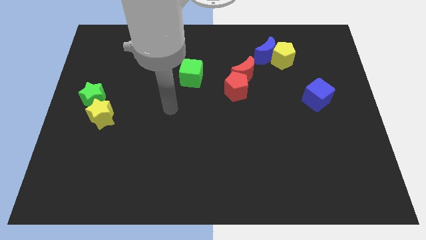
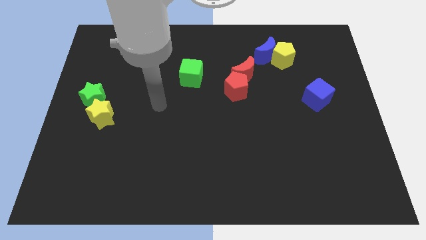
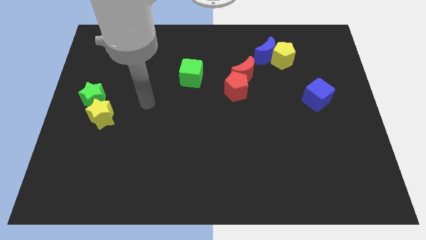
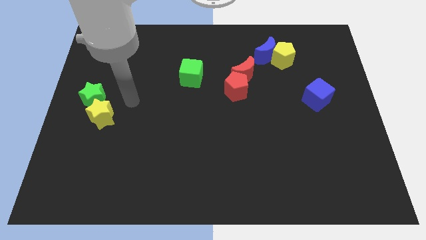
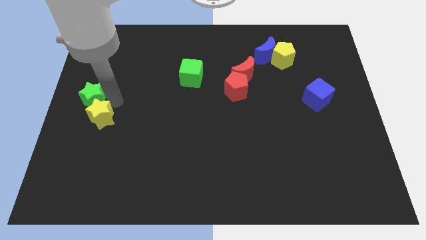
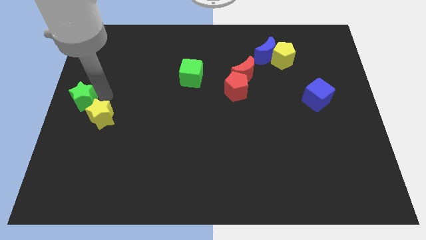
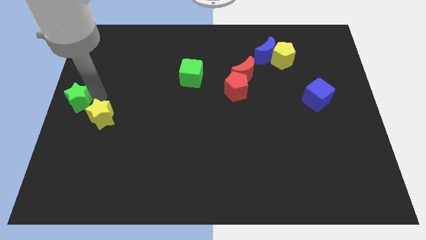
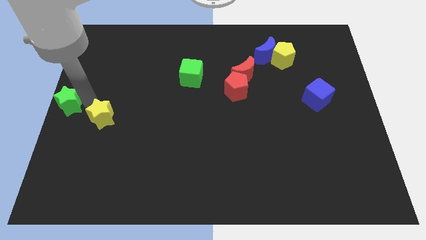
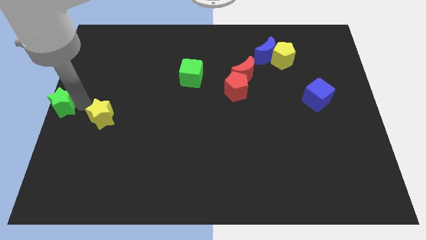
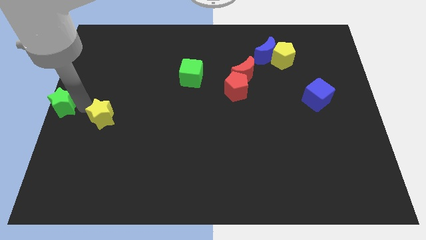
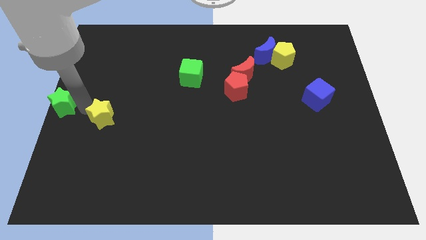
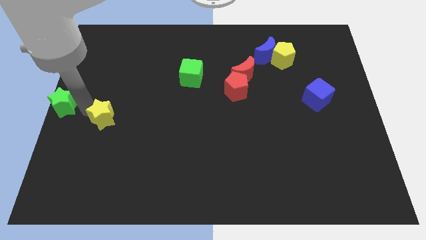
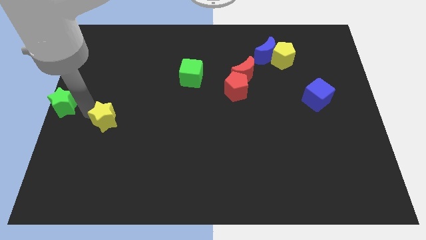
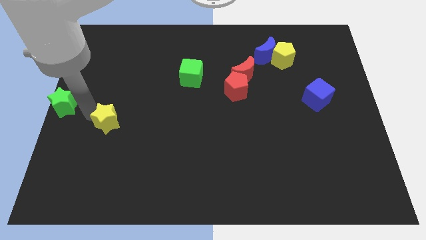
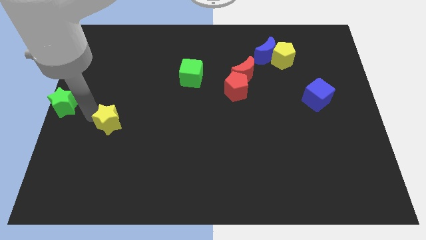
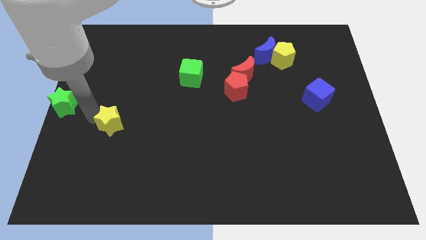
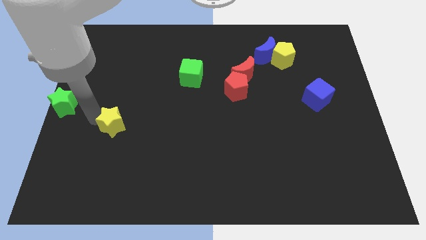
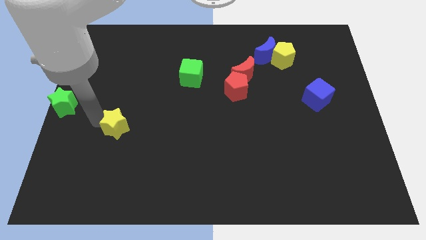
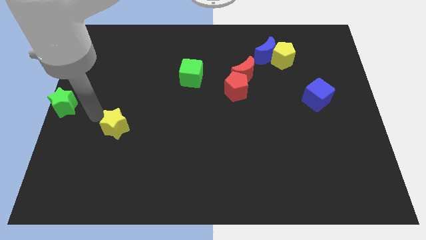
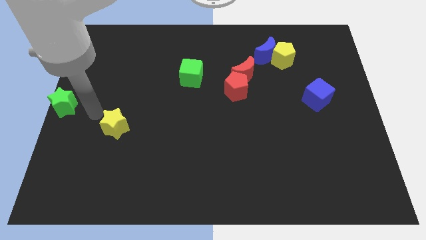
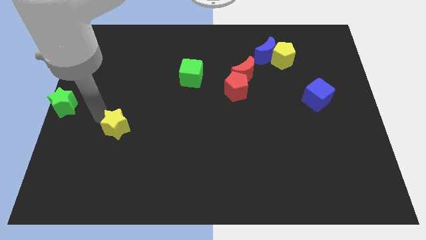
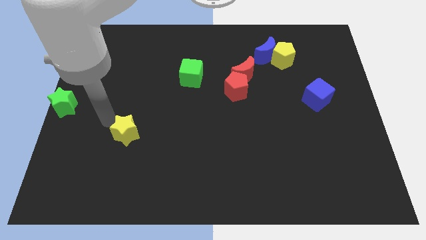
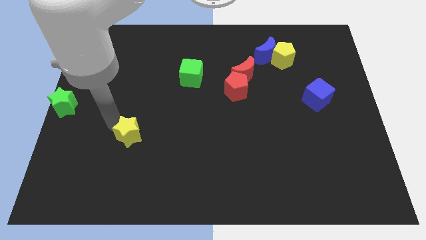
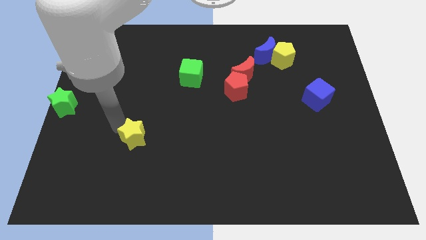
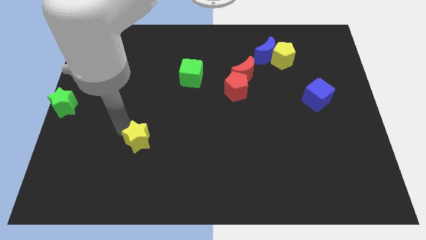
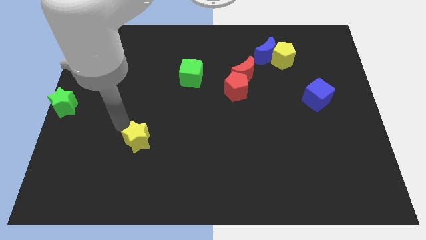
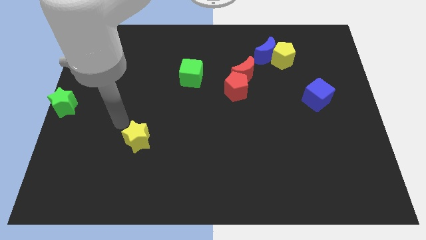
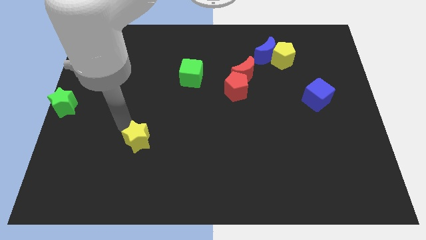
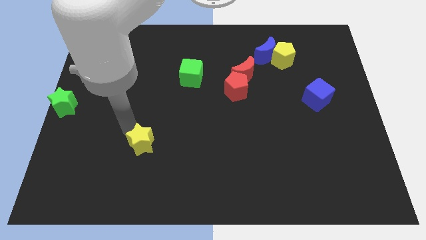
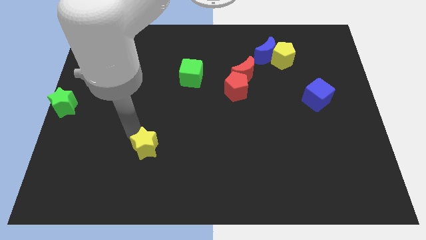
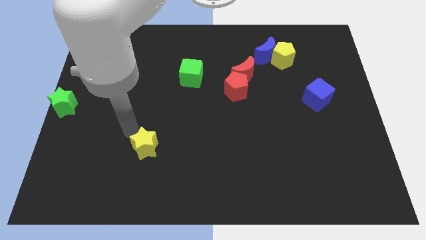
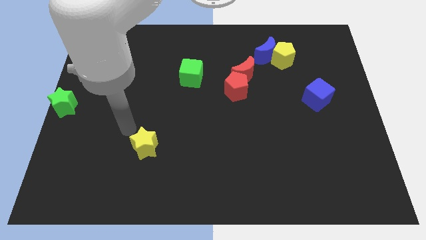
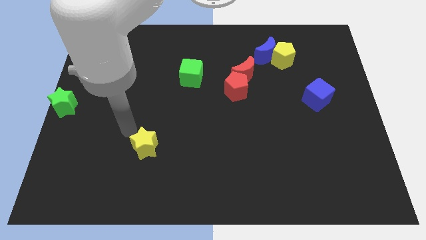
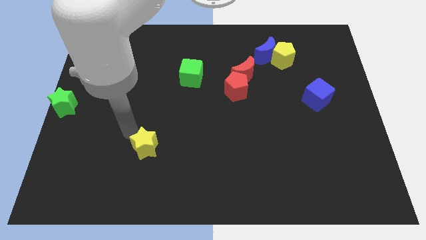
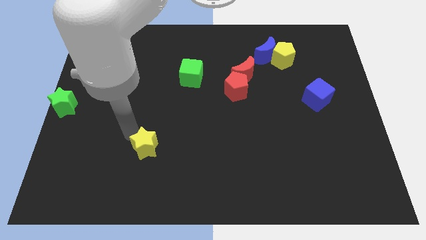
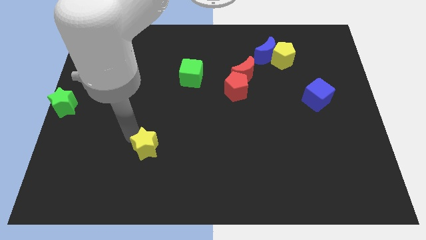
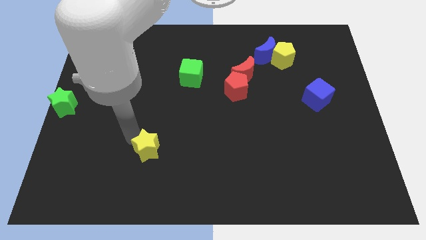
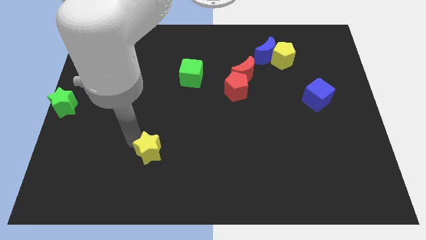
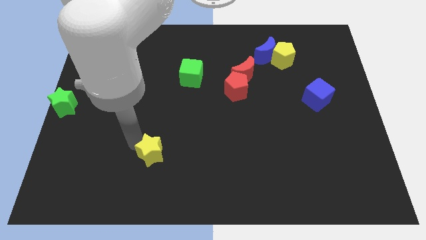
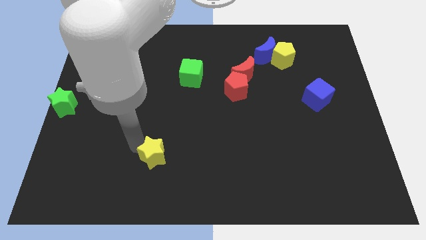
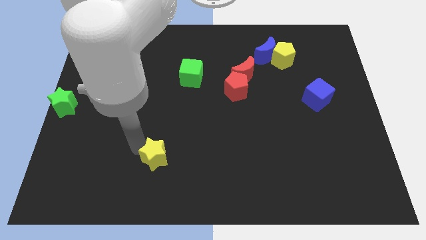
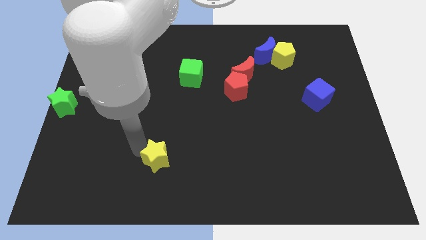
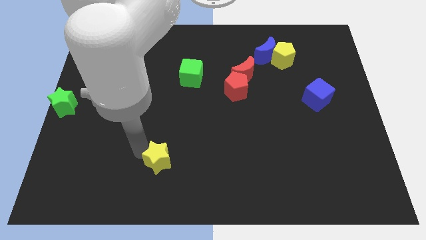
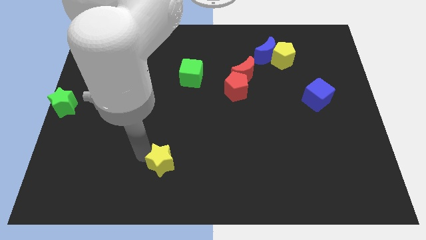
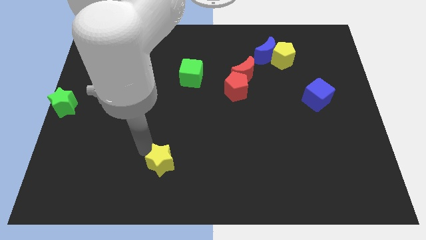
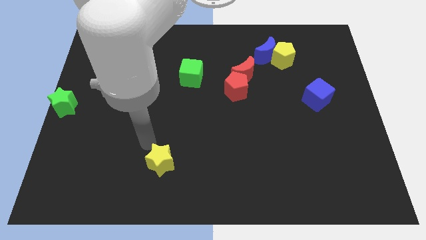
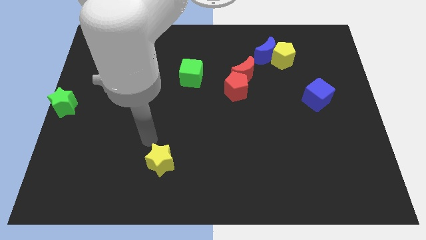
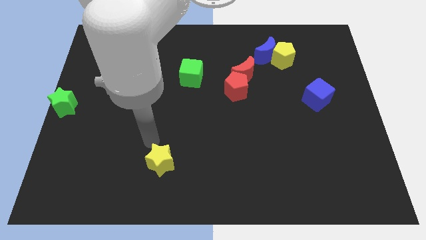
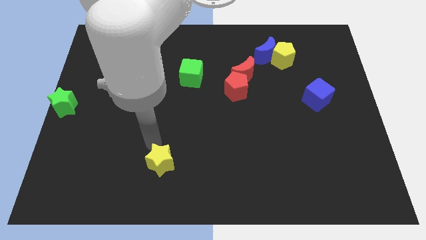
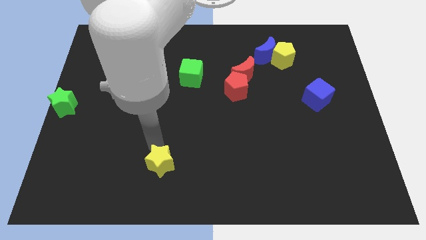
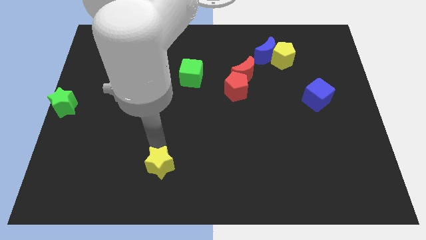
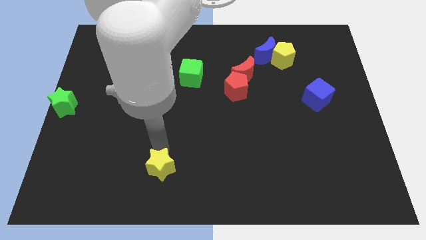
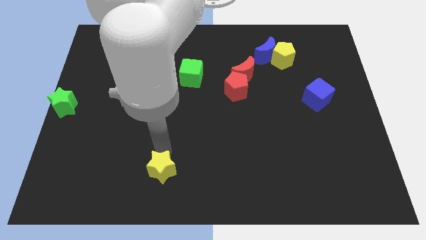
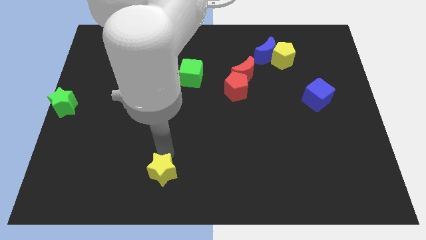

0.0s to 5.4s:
put the yellow star to the bottom side

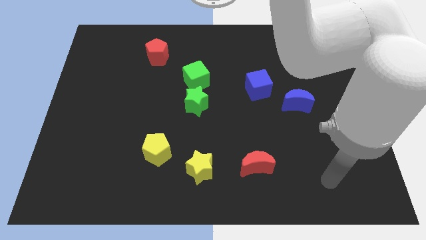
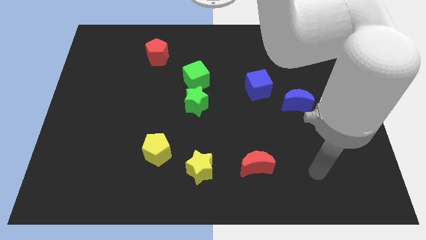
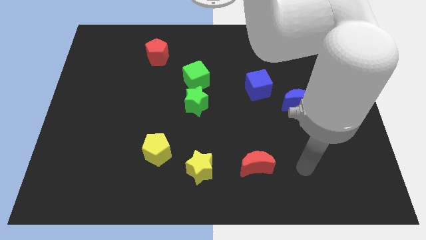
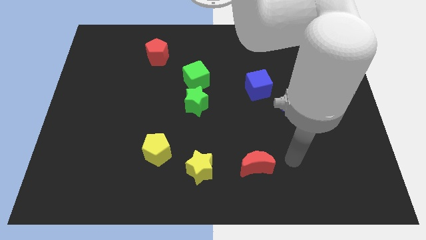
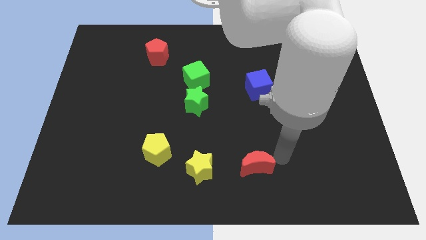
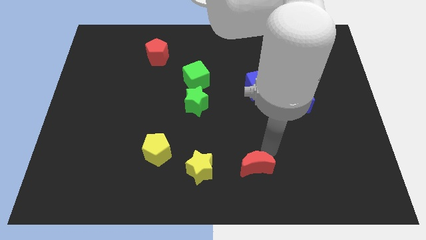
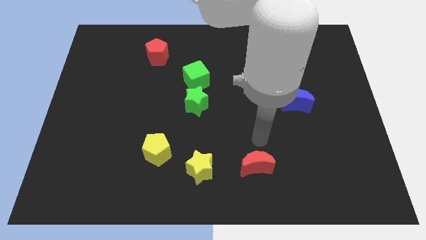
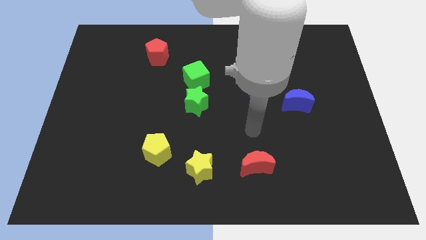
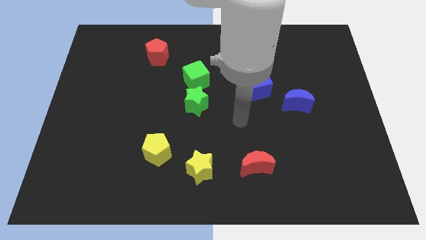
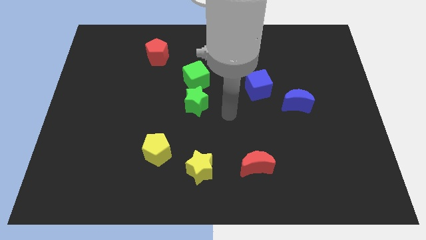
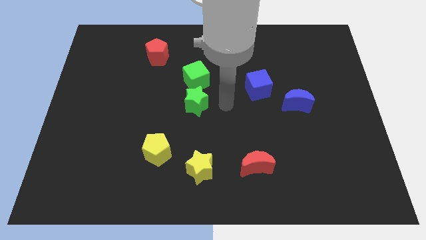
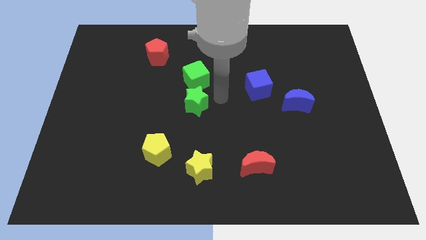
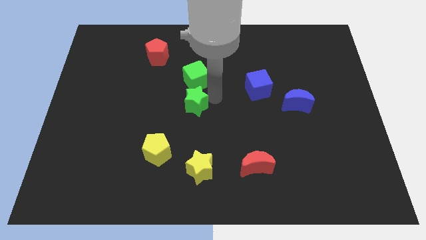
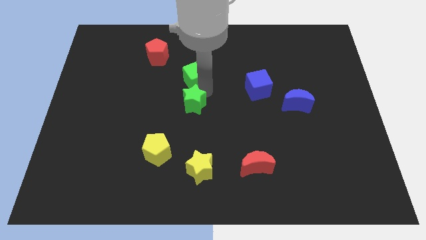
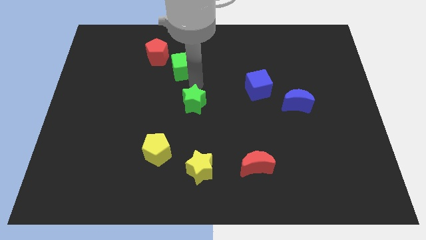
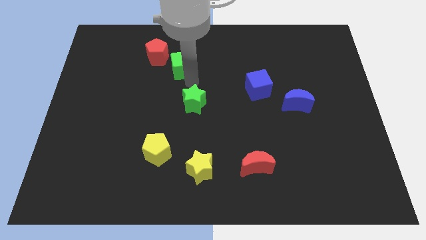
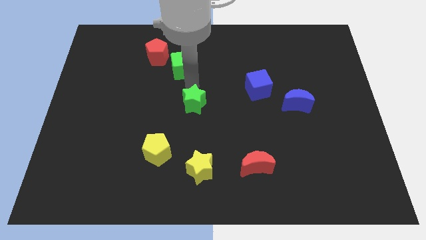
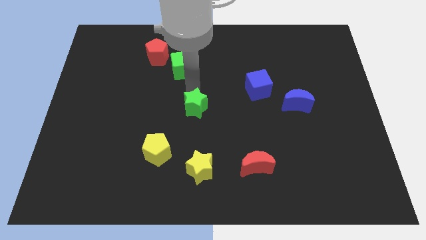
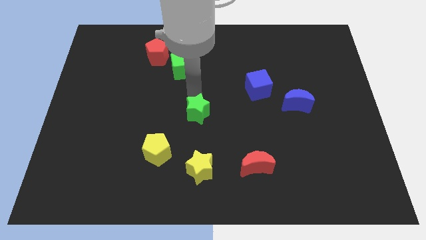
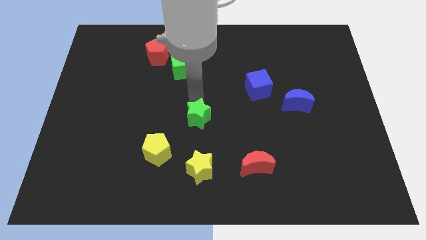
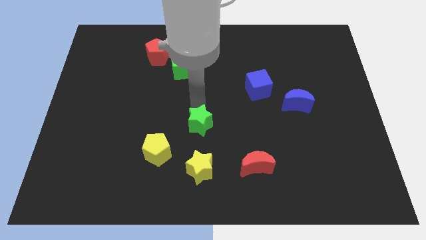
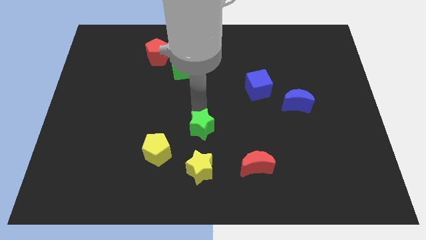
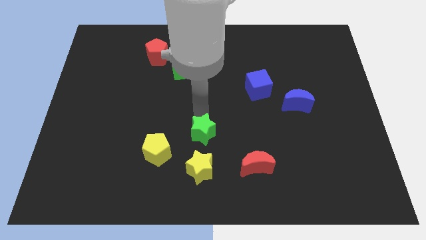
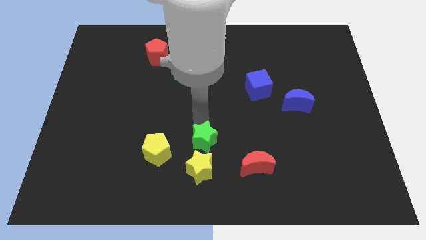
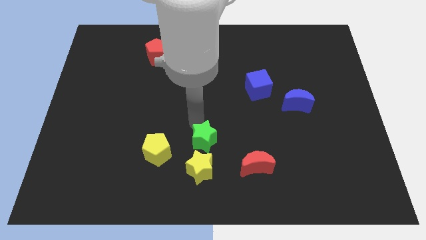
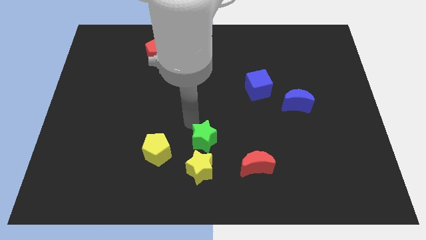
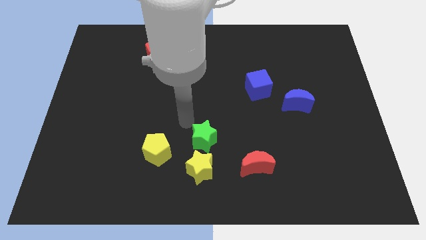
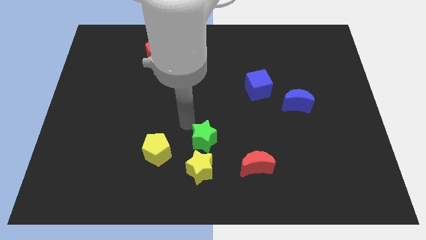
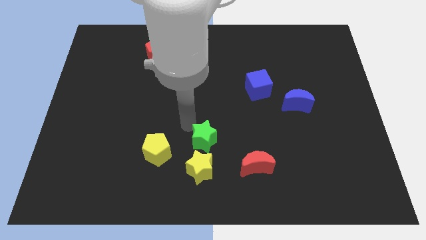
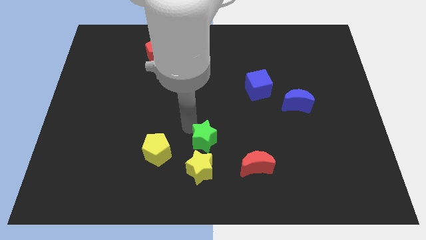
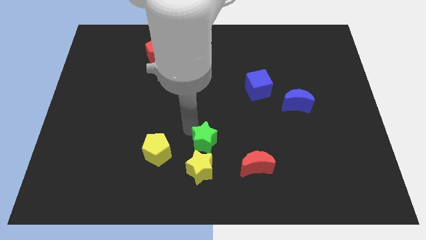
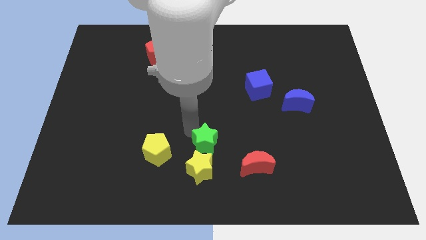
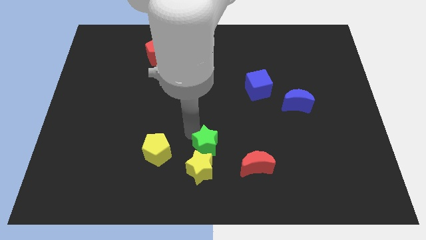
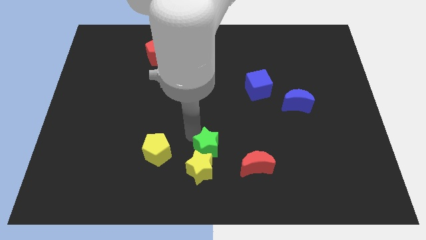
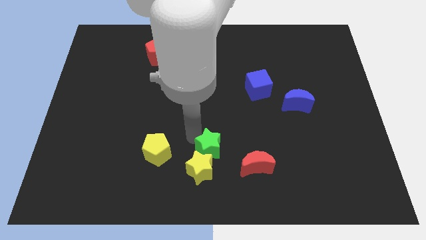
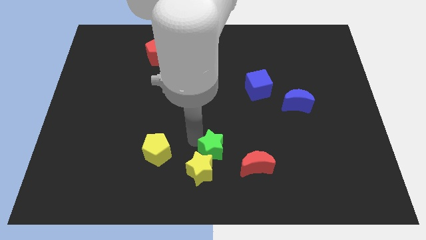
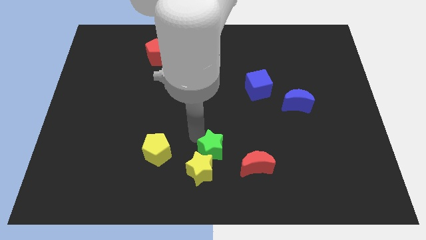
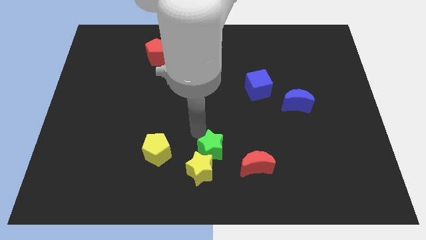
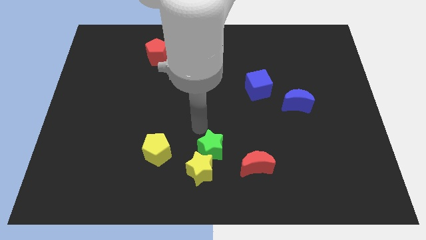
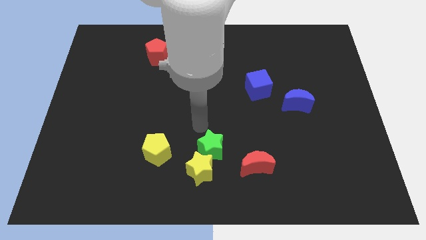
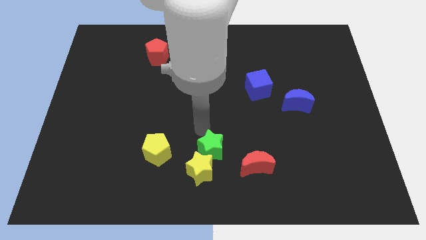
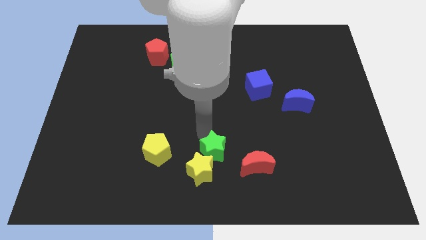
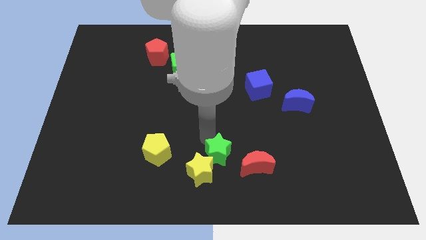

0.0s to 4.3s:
push the green star to the bottom
